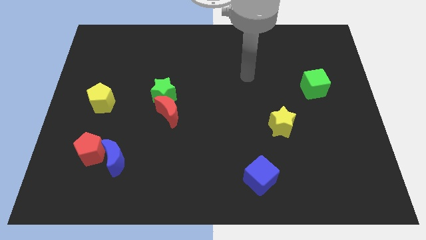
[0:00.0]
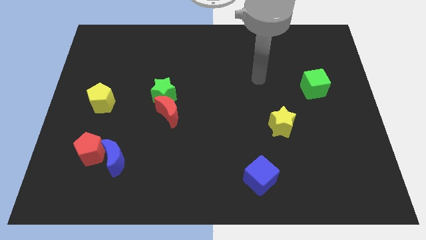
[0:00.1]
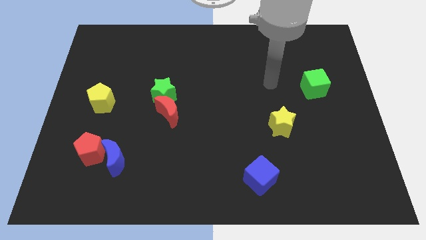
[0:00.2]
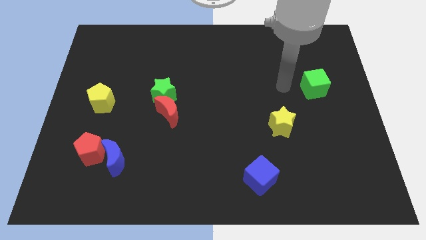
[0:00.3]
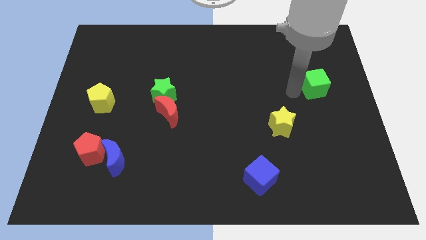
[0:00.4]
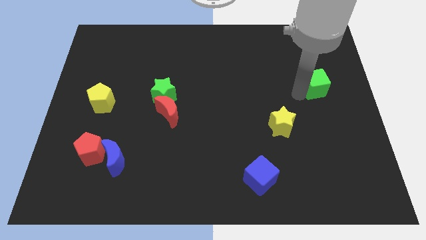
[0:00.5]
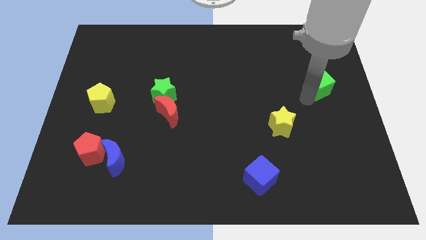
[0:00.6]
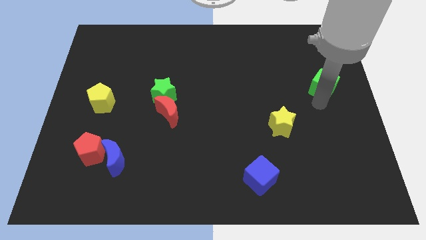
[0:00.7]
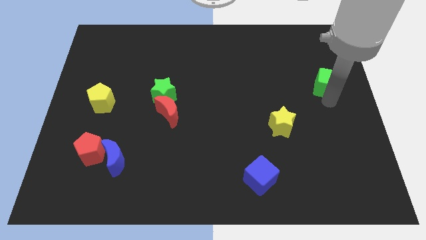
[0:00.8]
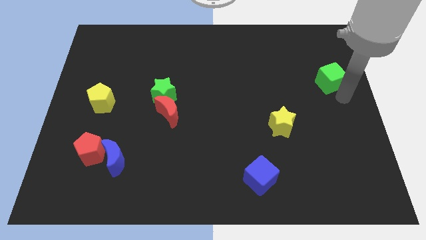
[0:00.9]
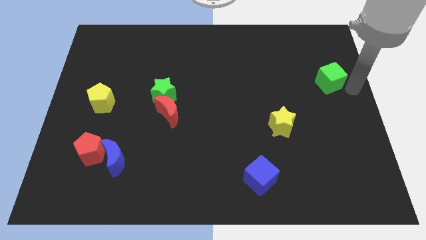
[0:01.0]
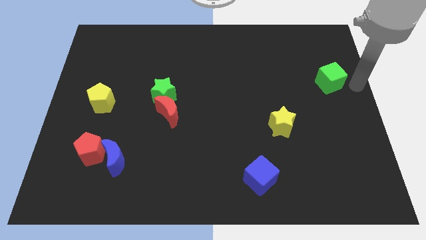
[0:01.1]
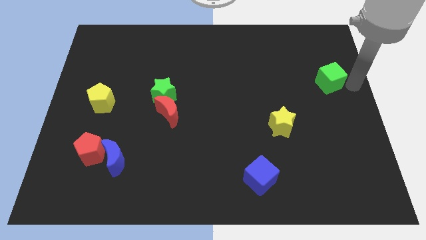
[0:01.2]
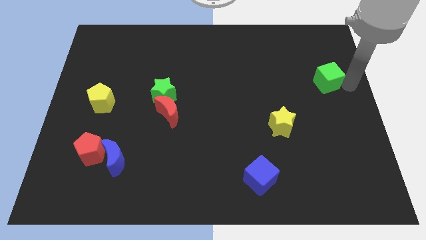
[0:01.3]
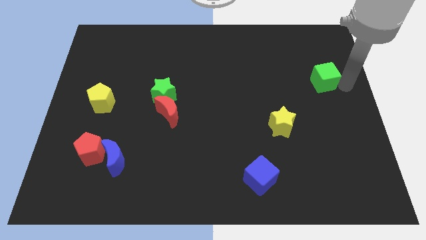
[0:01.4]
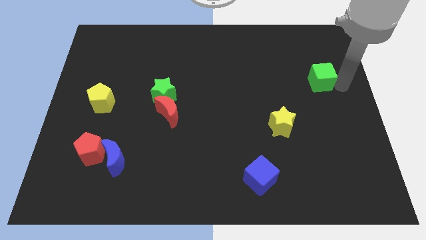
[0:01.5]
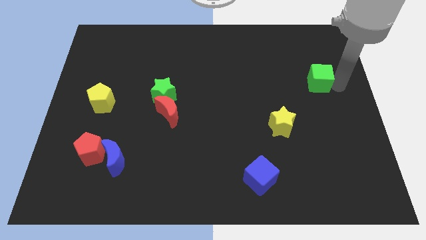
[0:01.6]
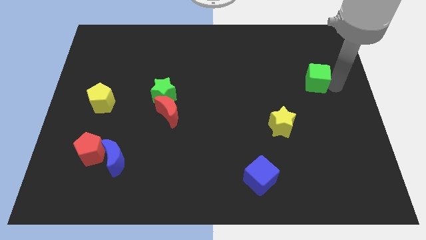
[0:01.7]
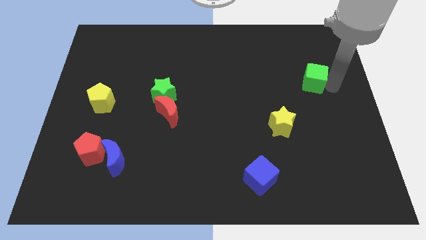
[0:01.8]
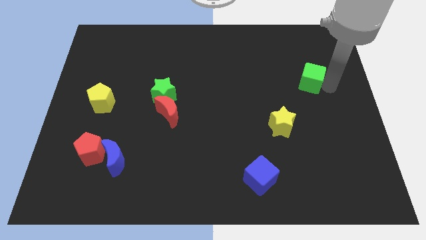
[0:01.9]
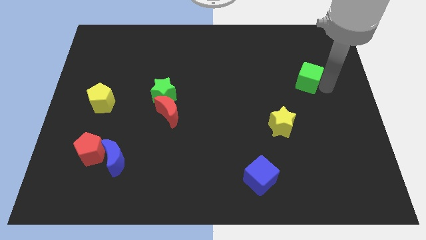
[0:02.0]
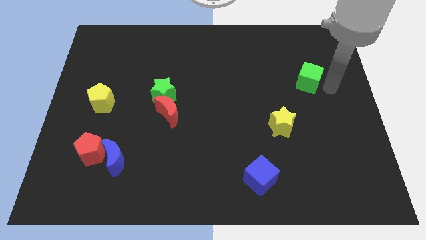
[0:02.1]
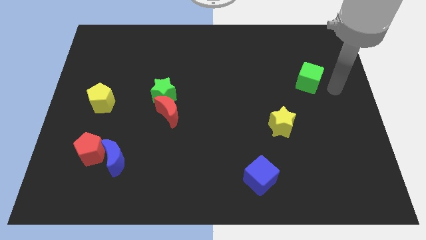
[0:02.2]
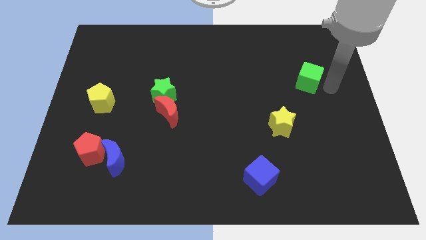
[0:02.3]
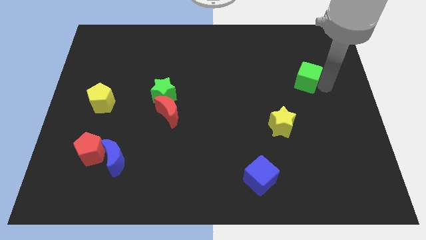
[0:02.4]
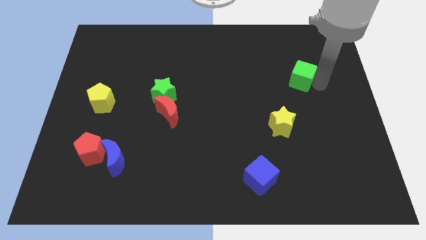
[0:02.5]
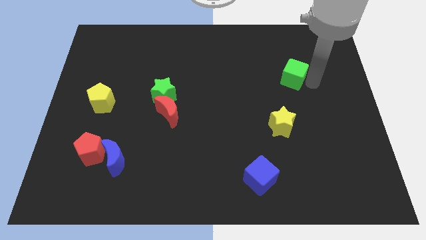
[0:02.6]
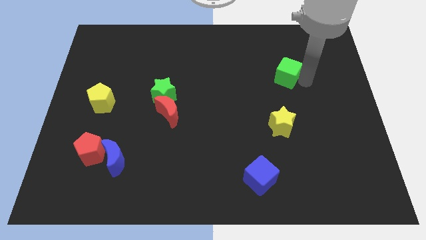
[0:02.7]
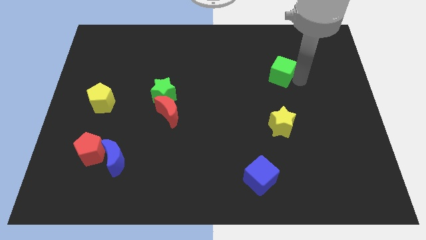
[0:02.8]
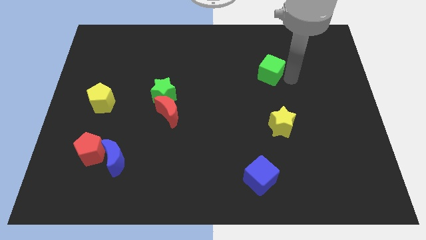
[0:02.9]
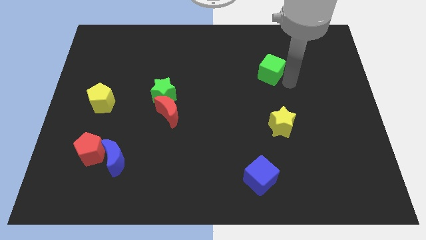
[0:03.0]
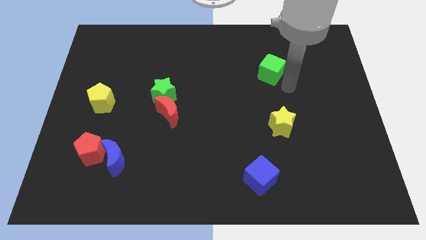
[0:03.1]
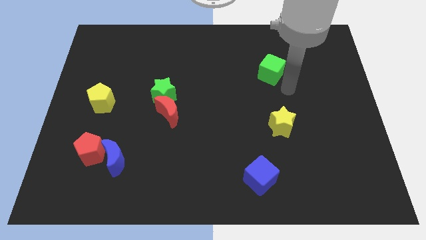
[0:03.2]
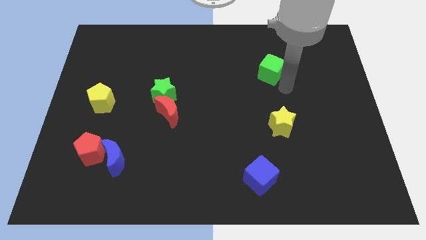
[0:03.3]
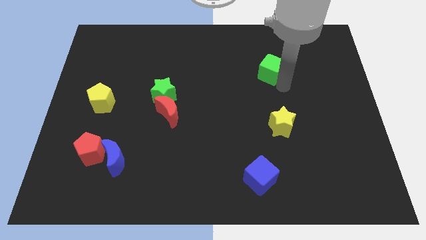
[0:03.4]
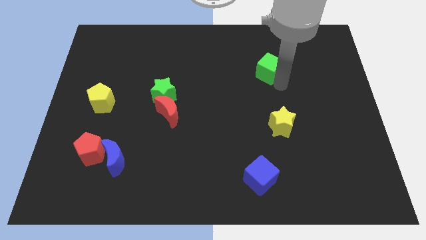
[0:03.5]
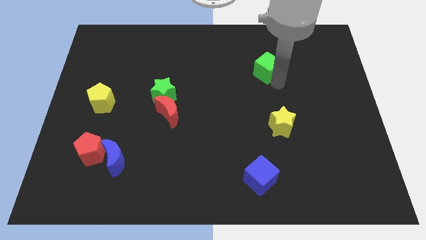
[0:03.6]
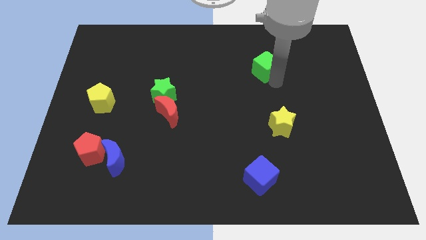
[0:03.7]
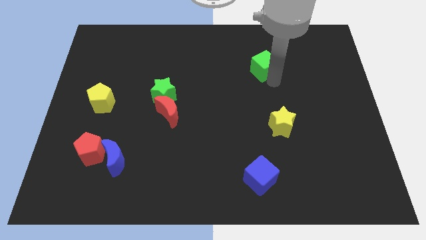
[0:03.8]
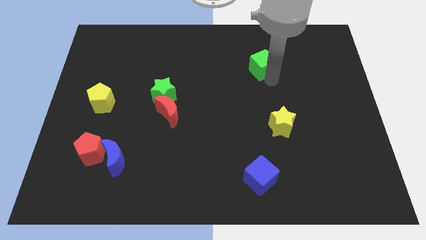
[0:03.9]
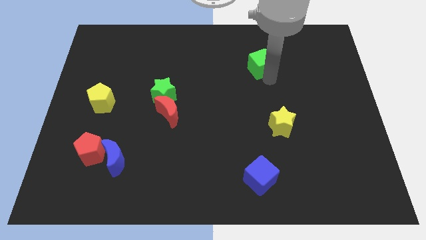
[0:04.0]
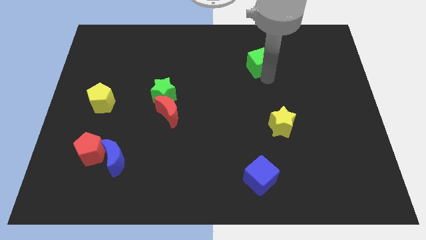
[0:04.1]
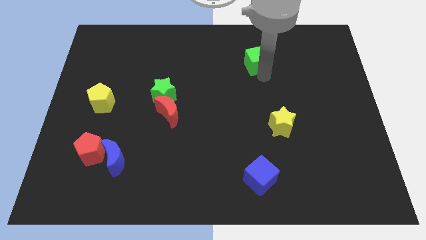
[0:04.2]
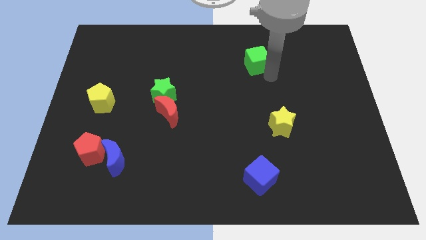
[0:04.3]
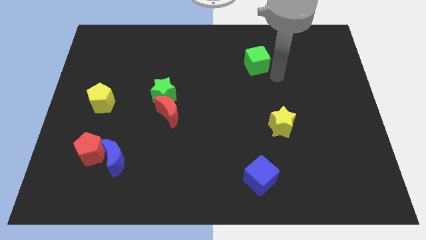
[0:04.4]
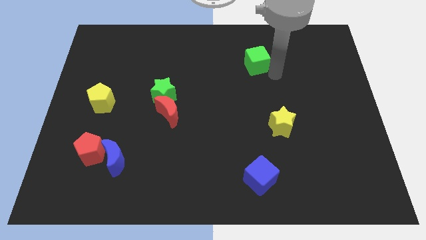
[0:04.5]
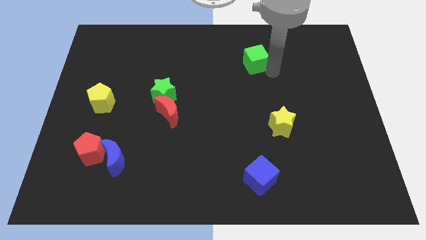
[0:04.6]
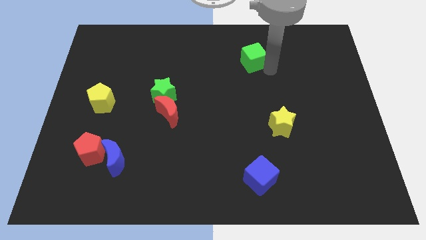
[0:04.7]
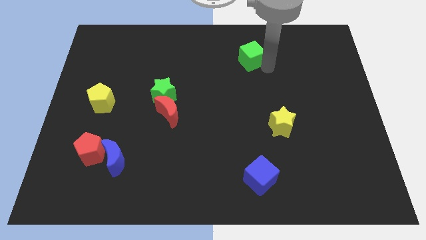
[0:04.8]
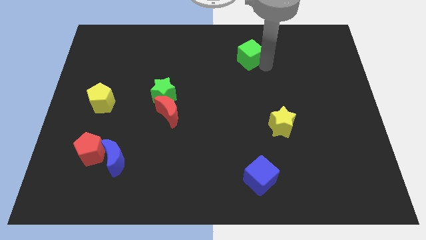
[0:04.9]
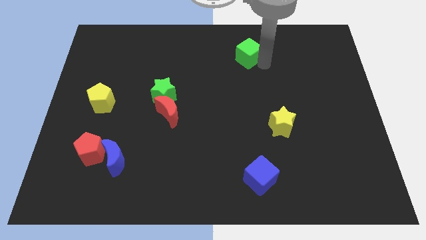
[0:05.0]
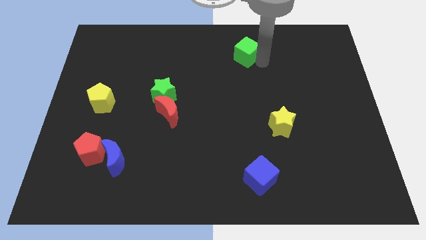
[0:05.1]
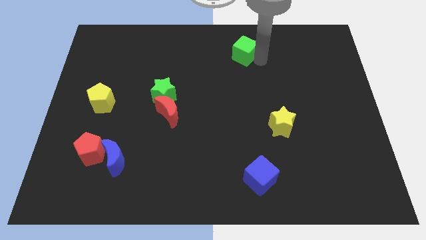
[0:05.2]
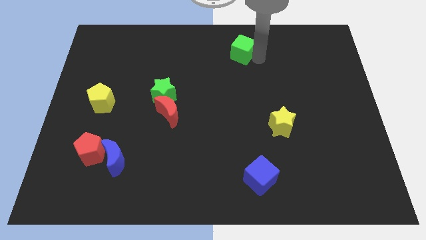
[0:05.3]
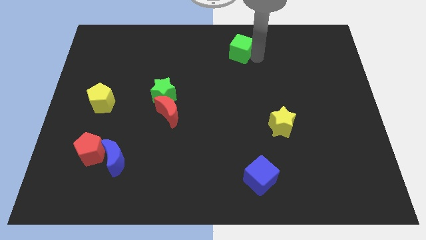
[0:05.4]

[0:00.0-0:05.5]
slide the green cube to the towards your base

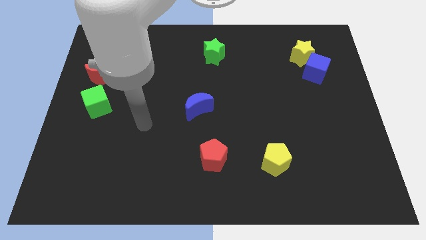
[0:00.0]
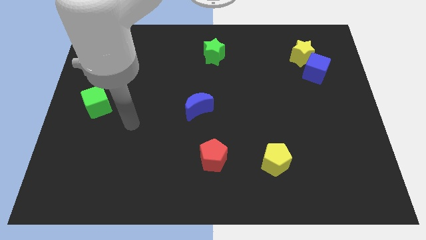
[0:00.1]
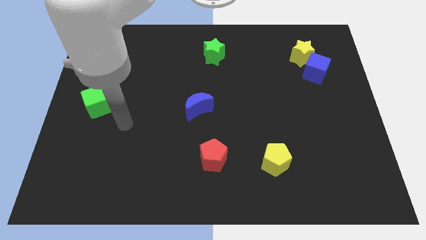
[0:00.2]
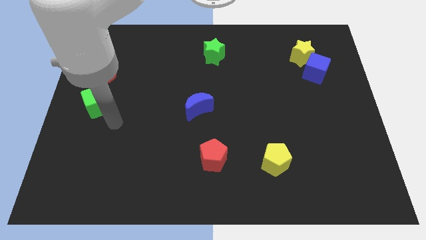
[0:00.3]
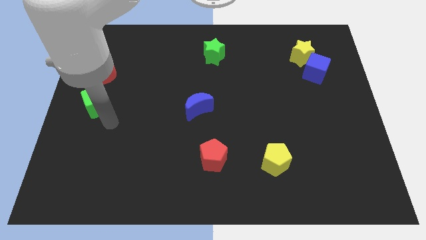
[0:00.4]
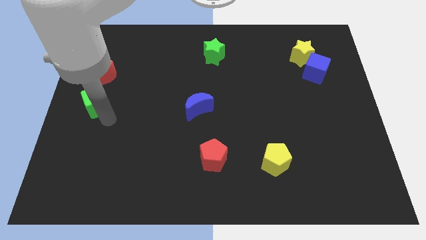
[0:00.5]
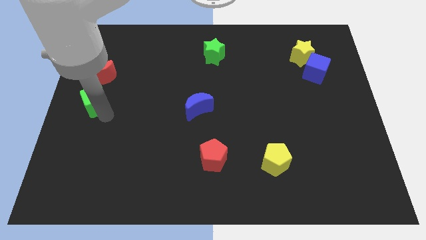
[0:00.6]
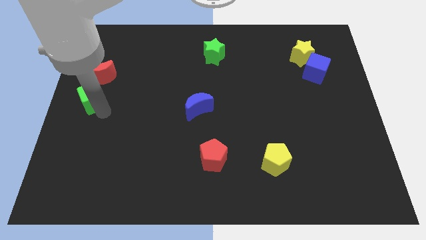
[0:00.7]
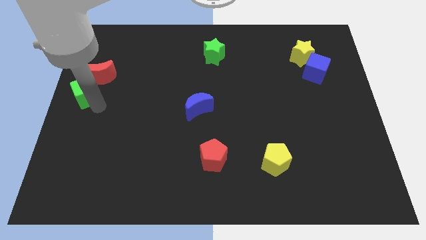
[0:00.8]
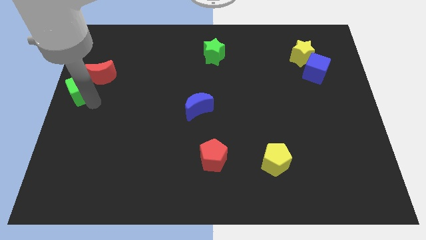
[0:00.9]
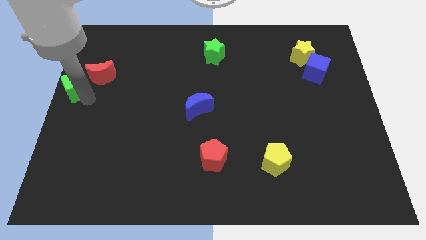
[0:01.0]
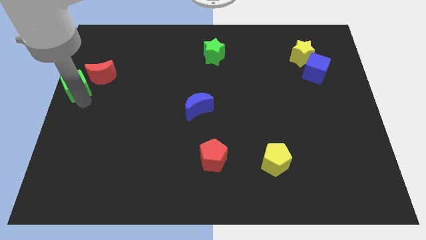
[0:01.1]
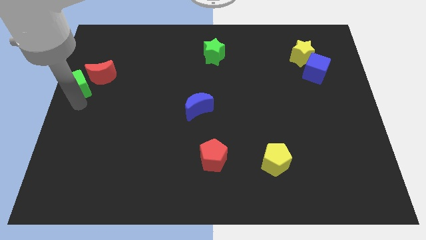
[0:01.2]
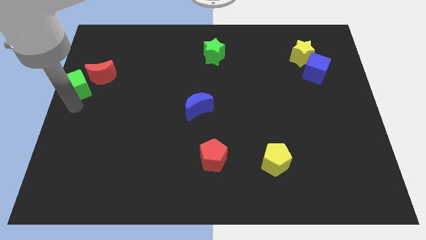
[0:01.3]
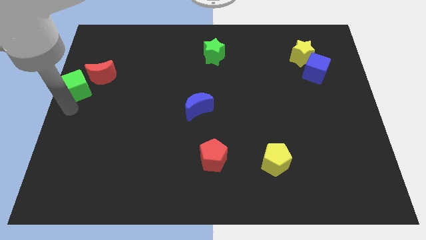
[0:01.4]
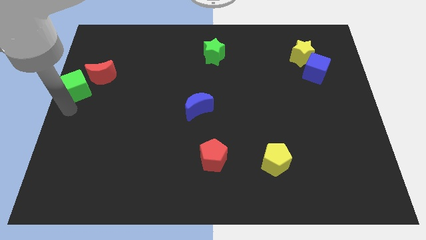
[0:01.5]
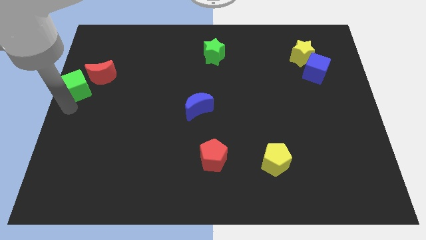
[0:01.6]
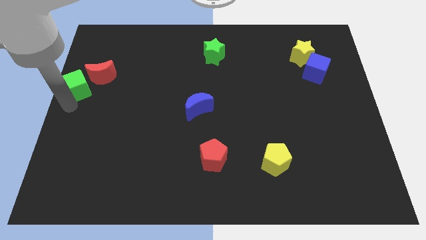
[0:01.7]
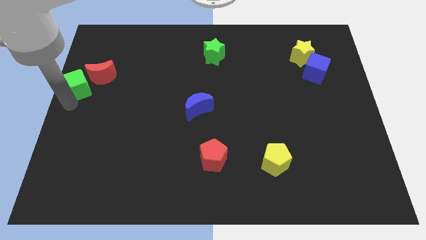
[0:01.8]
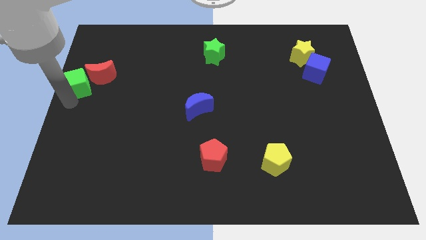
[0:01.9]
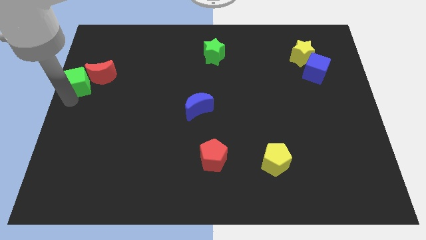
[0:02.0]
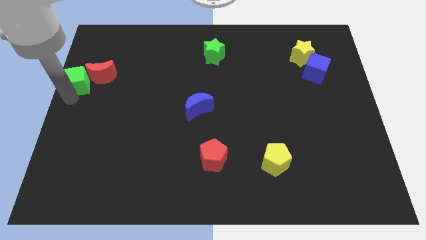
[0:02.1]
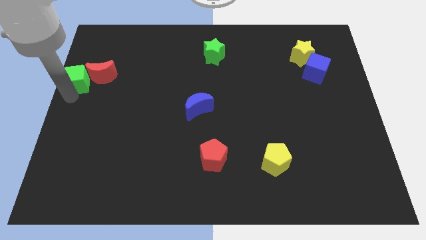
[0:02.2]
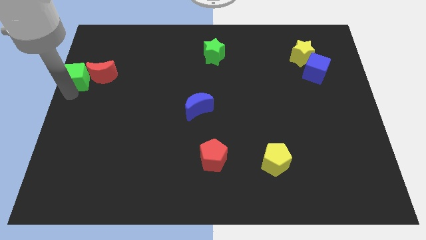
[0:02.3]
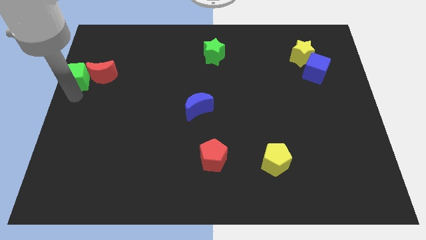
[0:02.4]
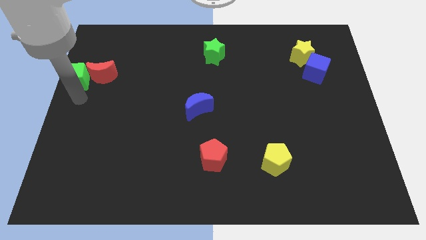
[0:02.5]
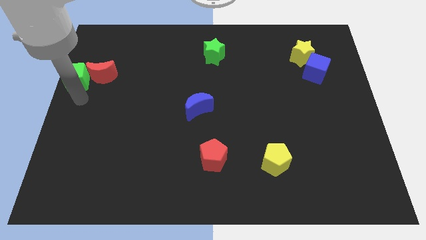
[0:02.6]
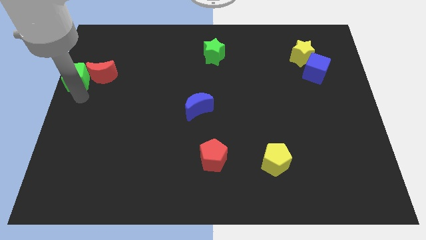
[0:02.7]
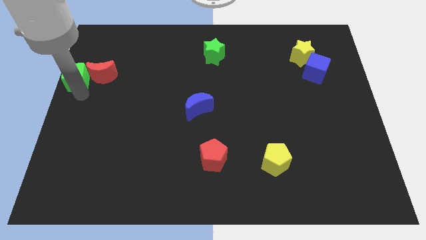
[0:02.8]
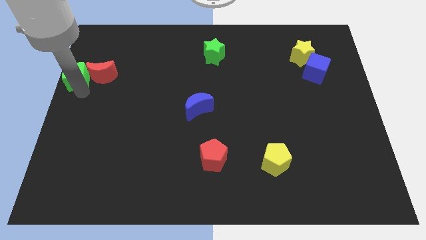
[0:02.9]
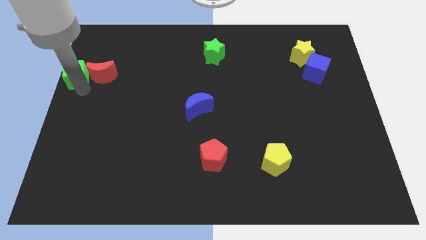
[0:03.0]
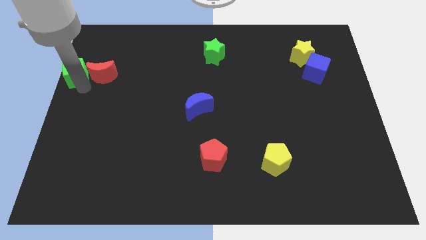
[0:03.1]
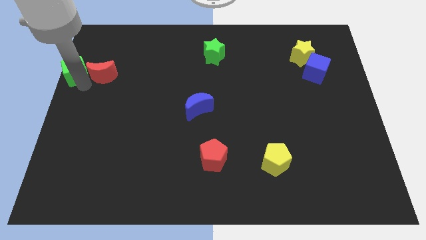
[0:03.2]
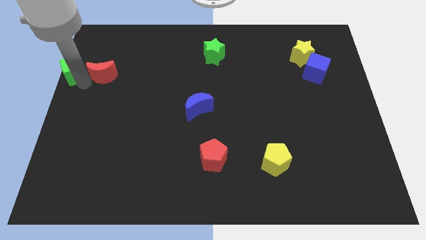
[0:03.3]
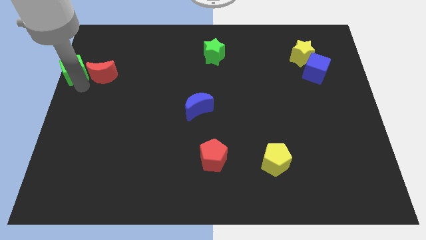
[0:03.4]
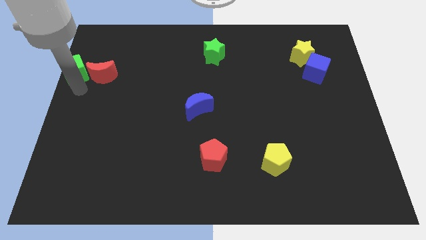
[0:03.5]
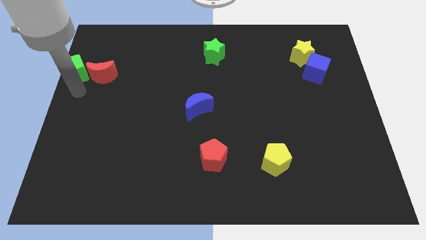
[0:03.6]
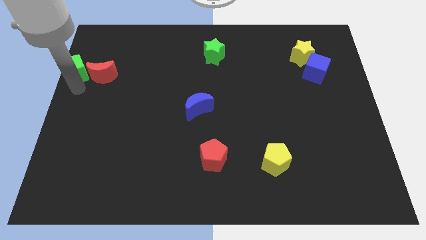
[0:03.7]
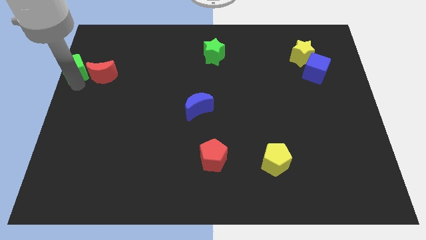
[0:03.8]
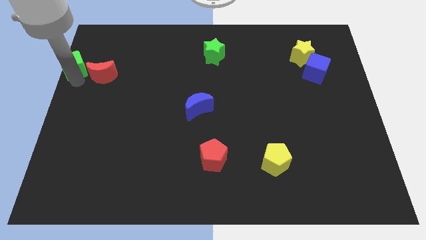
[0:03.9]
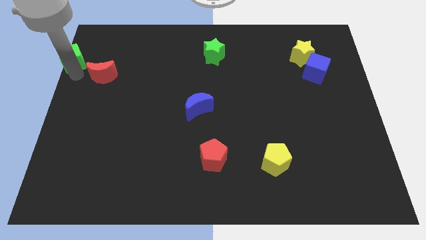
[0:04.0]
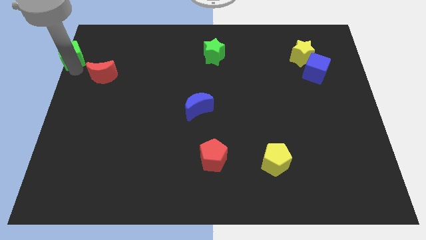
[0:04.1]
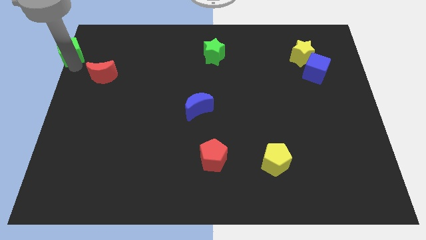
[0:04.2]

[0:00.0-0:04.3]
slide the green cube to the top left
